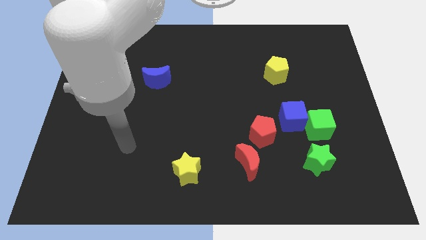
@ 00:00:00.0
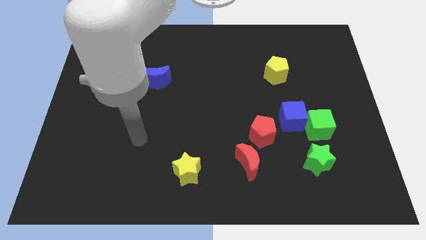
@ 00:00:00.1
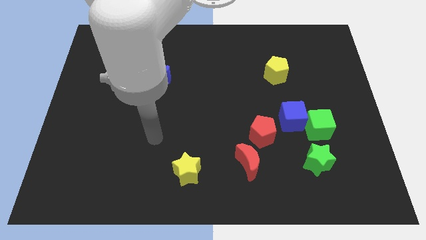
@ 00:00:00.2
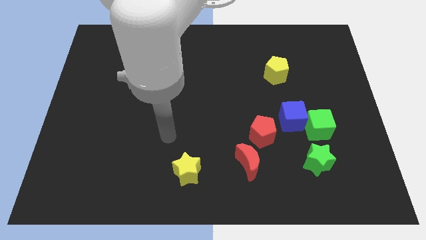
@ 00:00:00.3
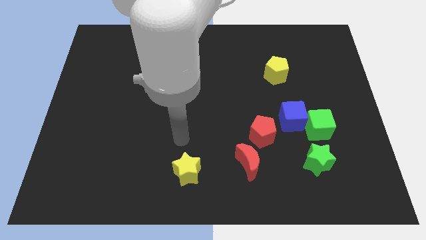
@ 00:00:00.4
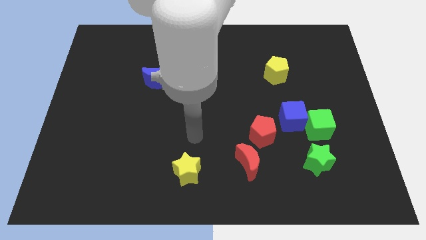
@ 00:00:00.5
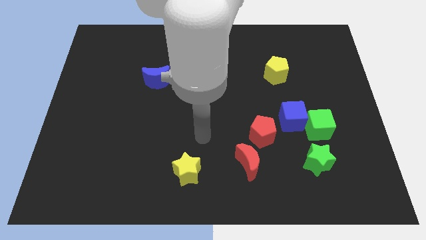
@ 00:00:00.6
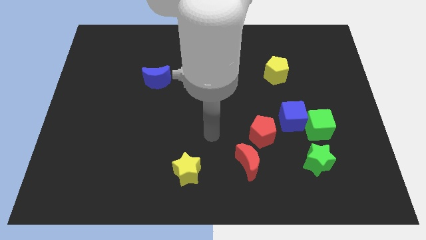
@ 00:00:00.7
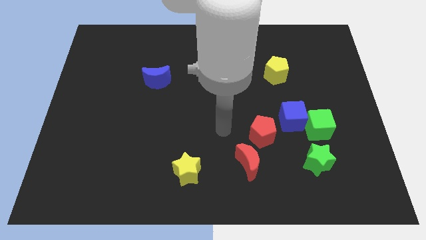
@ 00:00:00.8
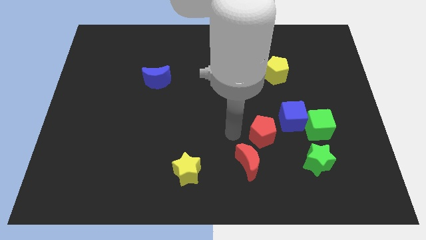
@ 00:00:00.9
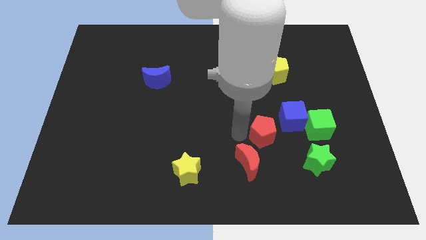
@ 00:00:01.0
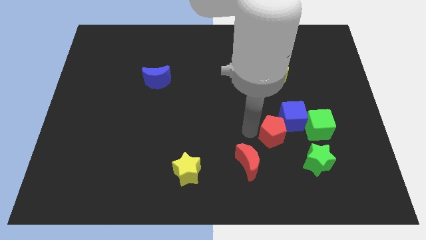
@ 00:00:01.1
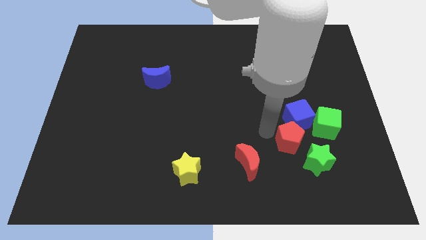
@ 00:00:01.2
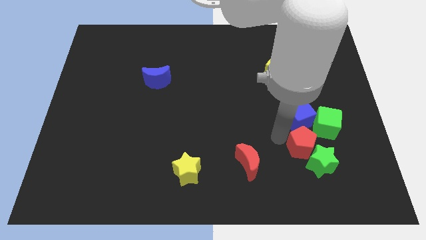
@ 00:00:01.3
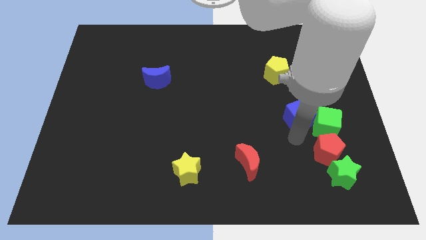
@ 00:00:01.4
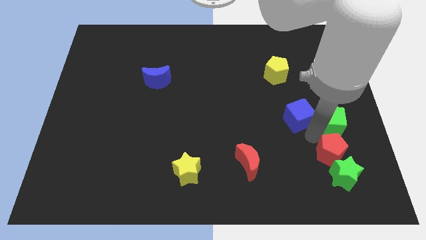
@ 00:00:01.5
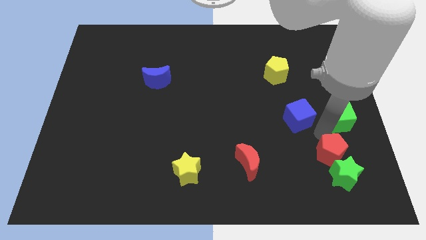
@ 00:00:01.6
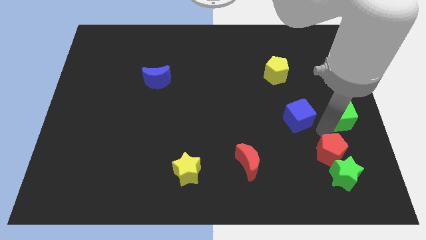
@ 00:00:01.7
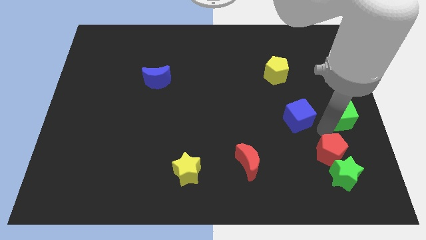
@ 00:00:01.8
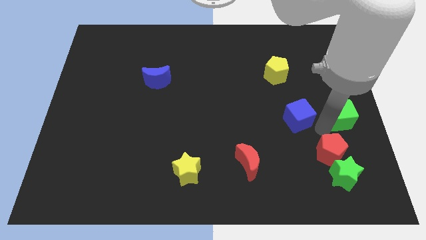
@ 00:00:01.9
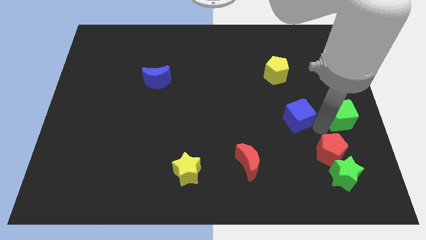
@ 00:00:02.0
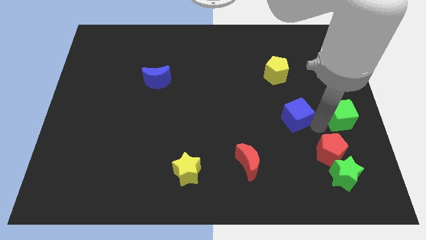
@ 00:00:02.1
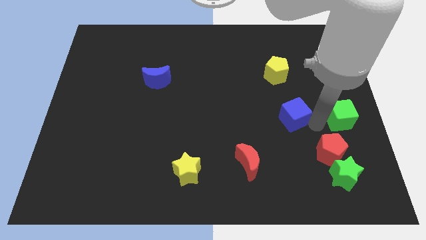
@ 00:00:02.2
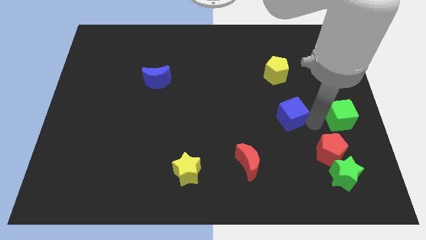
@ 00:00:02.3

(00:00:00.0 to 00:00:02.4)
move the blue cube away from the green cube and red pentagon

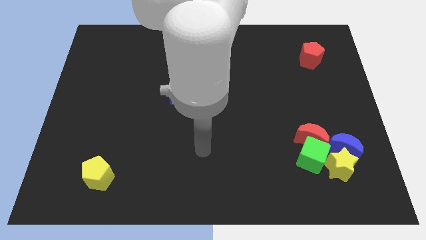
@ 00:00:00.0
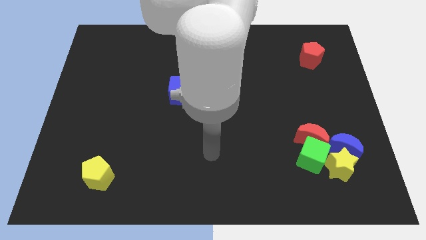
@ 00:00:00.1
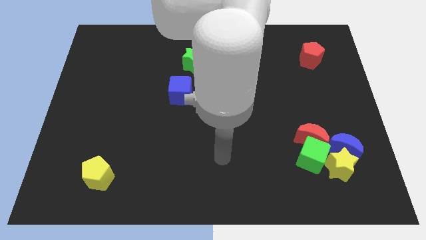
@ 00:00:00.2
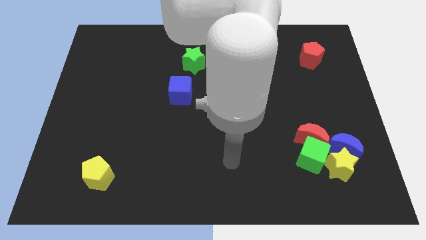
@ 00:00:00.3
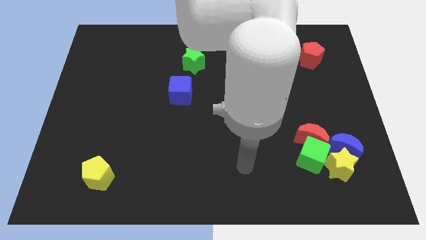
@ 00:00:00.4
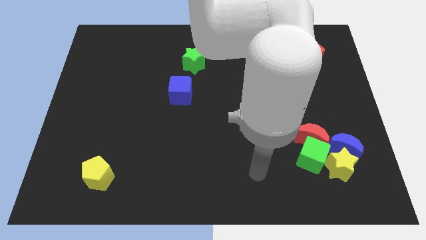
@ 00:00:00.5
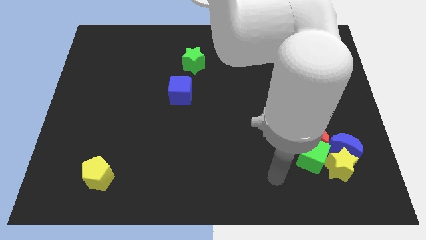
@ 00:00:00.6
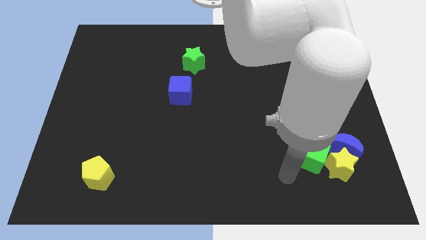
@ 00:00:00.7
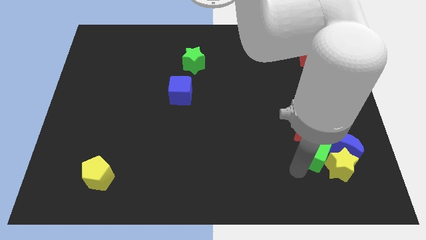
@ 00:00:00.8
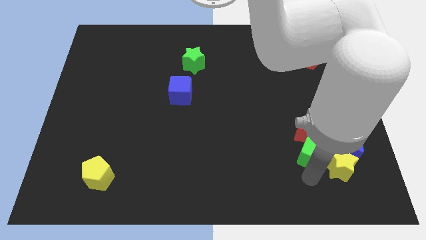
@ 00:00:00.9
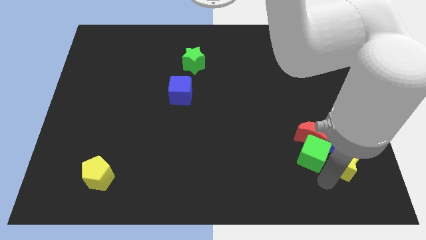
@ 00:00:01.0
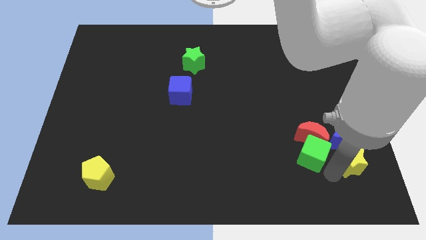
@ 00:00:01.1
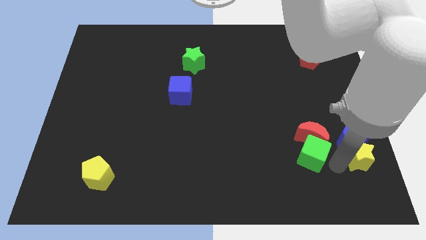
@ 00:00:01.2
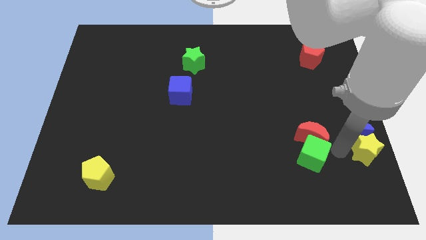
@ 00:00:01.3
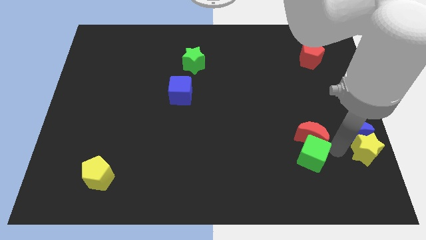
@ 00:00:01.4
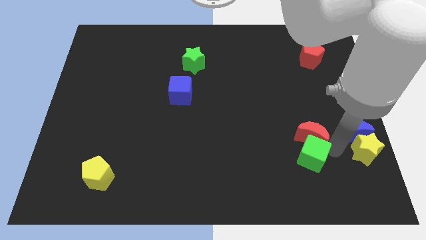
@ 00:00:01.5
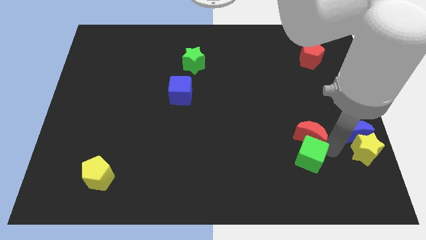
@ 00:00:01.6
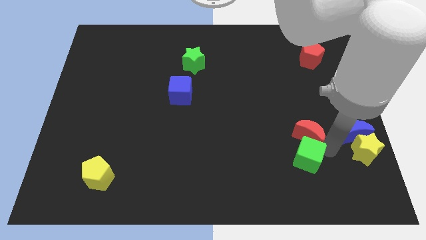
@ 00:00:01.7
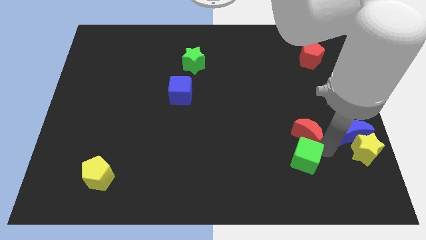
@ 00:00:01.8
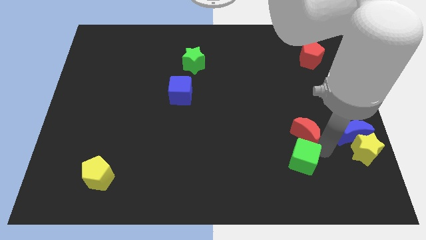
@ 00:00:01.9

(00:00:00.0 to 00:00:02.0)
separate the green cube from the red moon, yellow star, and blue moon

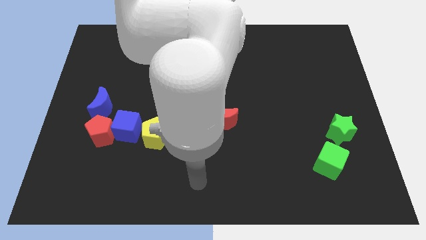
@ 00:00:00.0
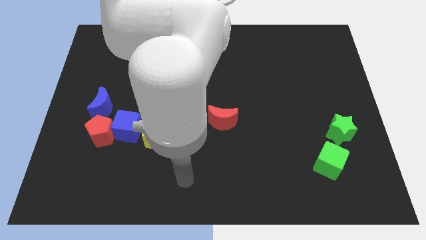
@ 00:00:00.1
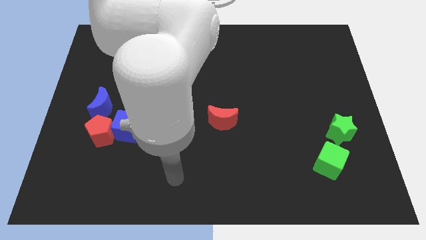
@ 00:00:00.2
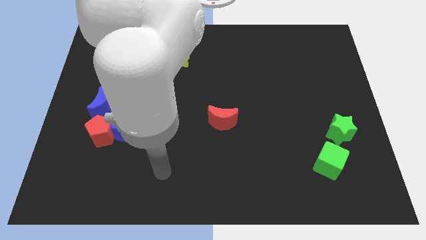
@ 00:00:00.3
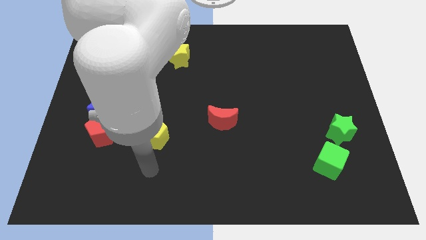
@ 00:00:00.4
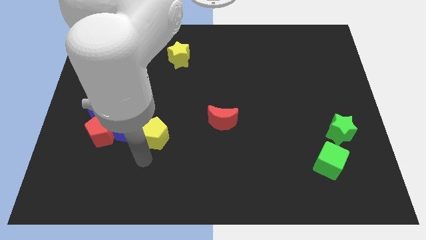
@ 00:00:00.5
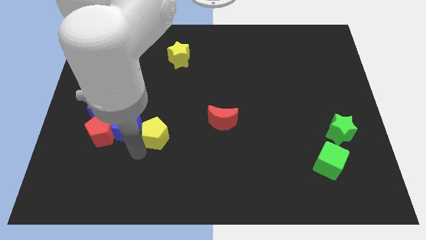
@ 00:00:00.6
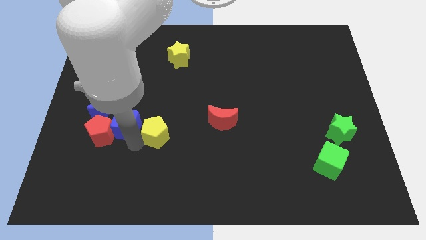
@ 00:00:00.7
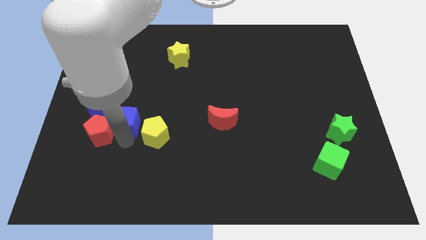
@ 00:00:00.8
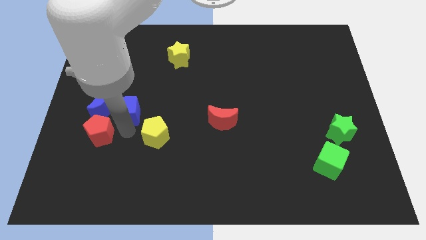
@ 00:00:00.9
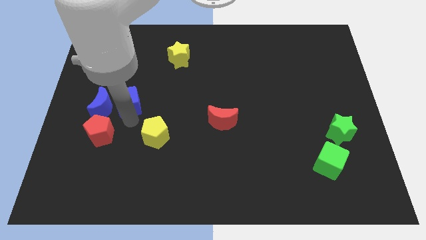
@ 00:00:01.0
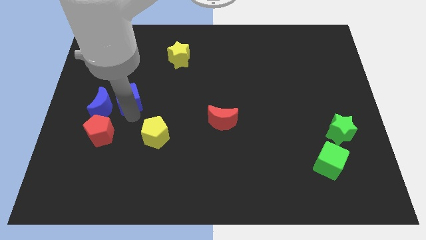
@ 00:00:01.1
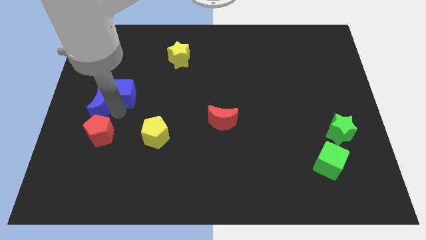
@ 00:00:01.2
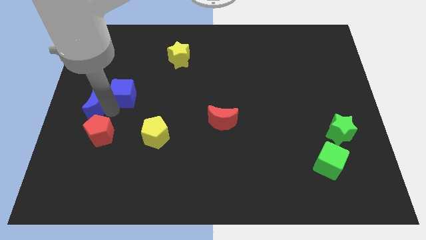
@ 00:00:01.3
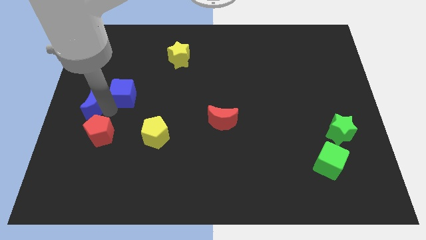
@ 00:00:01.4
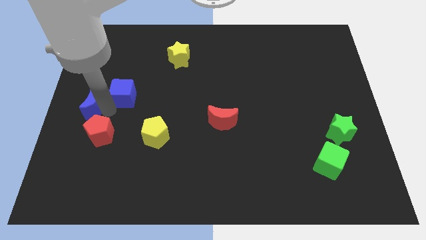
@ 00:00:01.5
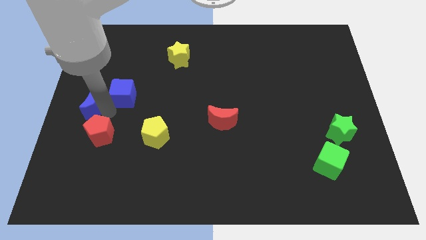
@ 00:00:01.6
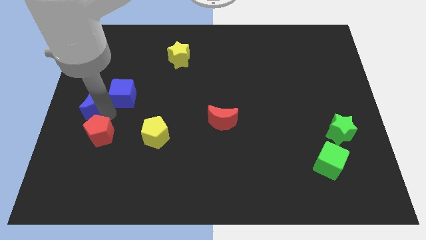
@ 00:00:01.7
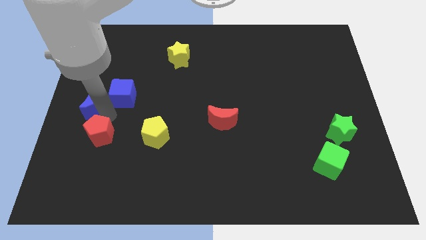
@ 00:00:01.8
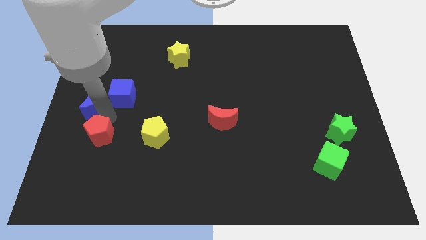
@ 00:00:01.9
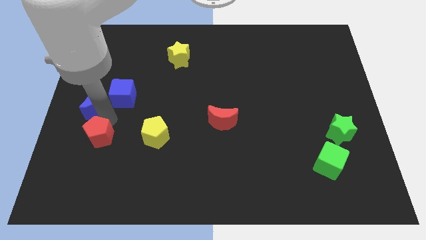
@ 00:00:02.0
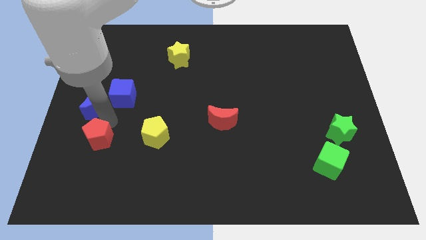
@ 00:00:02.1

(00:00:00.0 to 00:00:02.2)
separate the red pentagon from the blue cube and blue moon

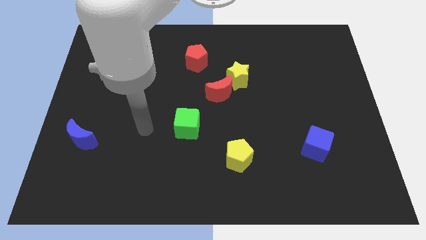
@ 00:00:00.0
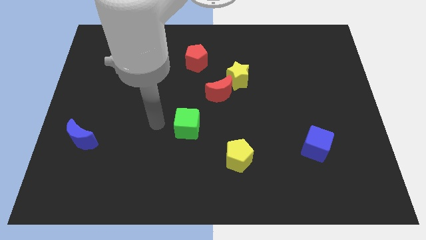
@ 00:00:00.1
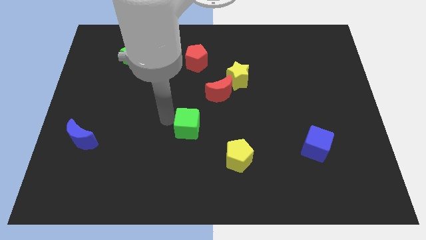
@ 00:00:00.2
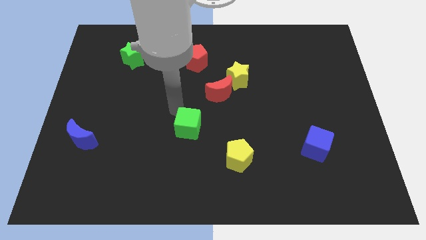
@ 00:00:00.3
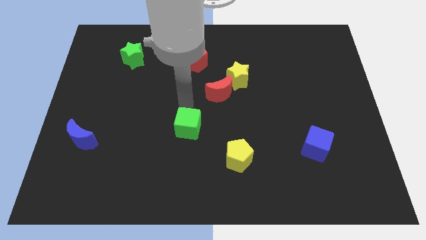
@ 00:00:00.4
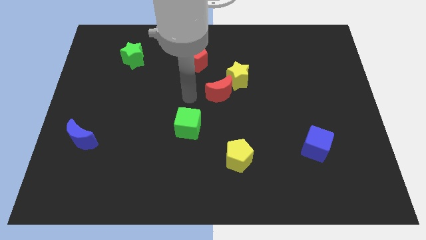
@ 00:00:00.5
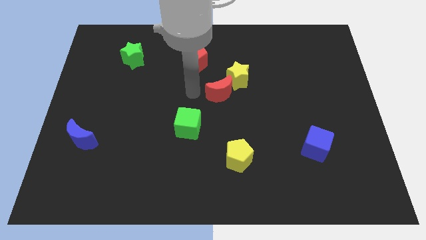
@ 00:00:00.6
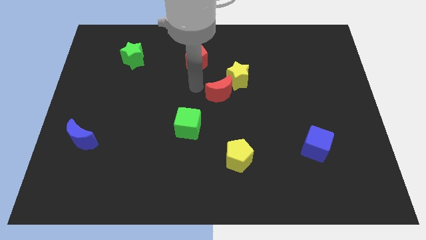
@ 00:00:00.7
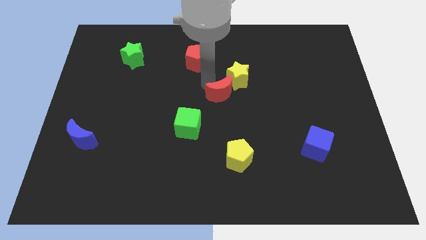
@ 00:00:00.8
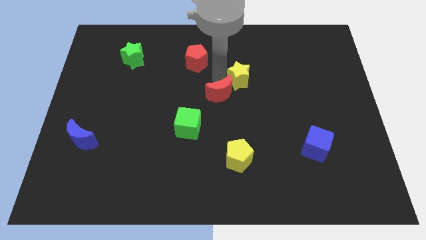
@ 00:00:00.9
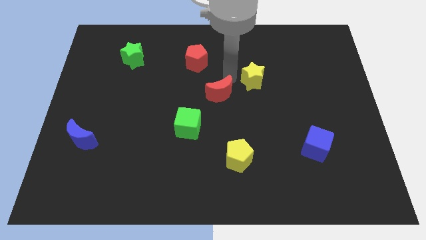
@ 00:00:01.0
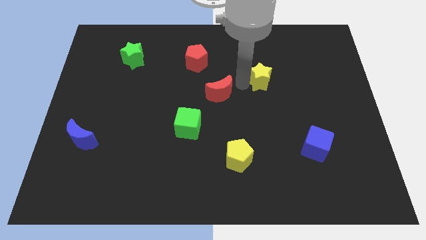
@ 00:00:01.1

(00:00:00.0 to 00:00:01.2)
separate the red moon from the yellow star

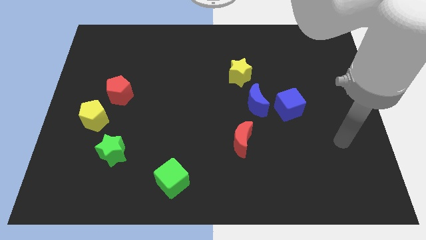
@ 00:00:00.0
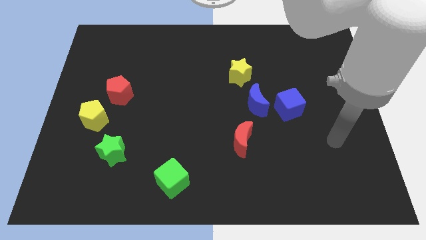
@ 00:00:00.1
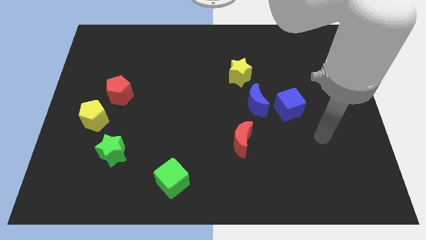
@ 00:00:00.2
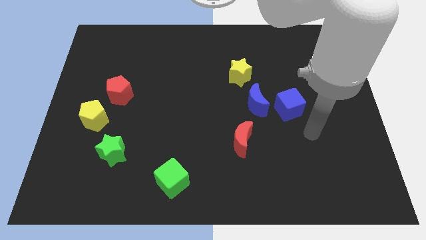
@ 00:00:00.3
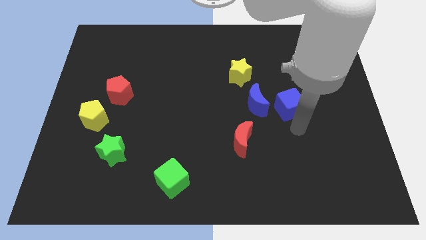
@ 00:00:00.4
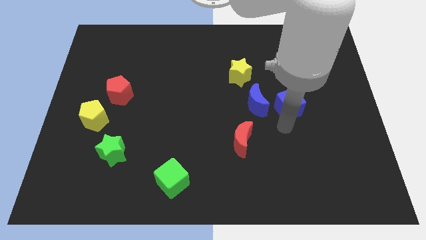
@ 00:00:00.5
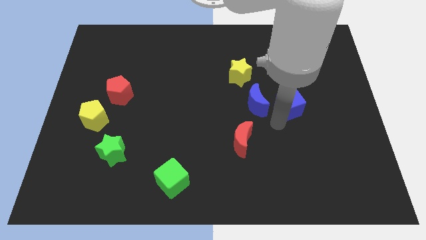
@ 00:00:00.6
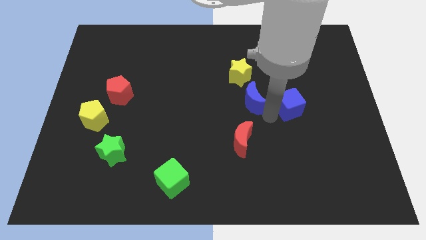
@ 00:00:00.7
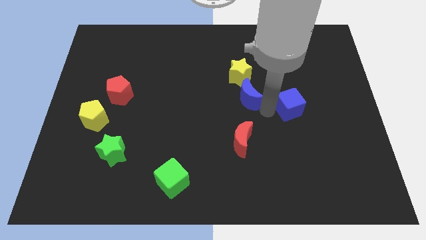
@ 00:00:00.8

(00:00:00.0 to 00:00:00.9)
move the blue cube away from the blue moon

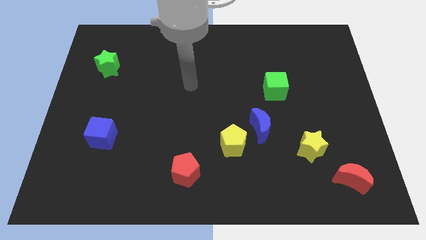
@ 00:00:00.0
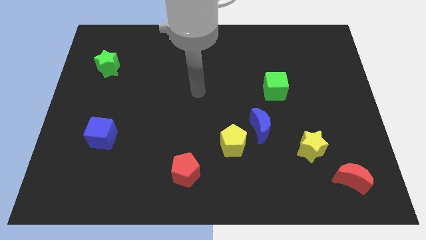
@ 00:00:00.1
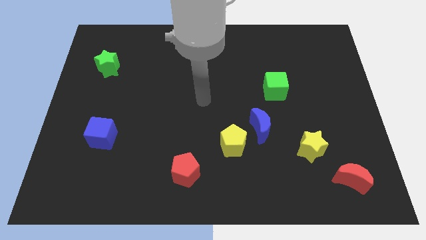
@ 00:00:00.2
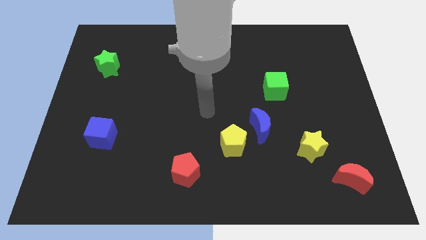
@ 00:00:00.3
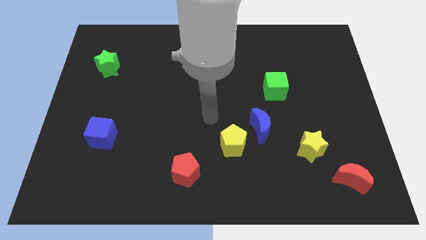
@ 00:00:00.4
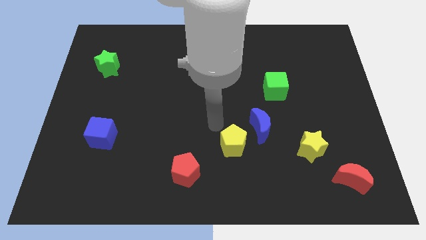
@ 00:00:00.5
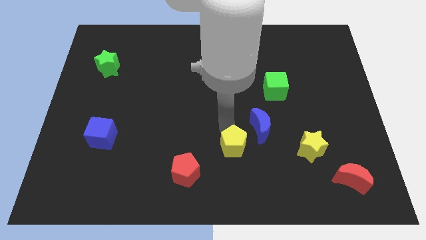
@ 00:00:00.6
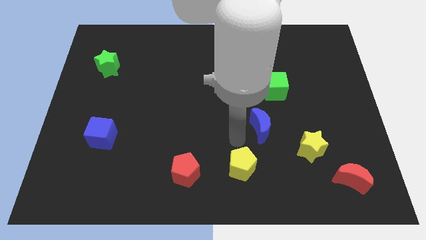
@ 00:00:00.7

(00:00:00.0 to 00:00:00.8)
move the blue moon away from the yellow pentagon
